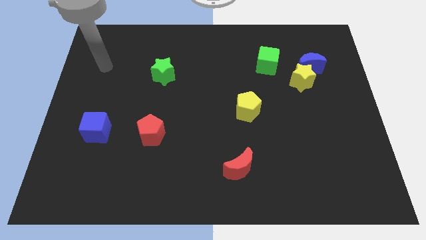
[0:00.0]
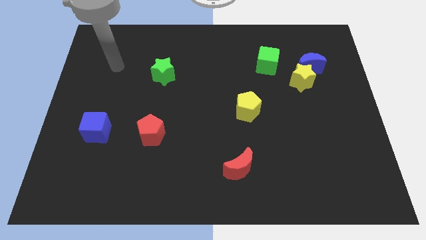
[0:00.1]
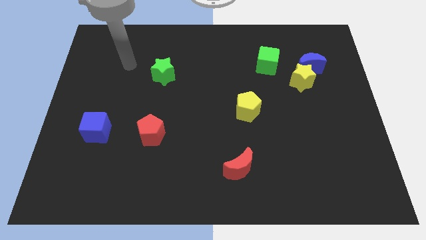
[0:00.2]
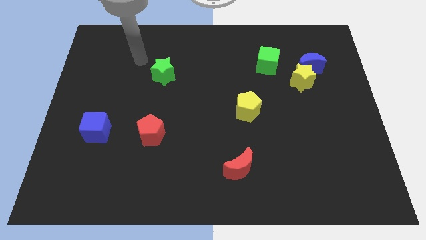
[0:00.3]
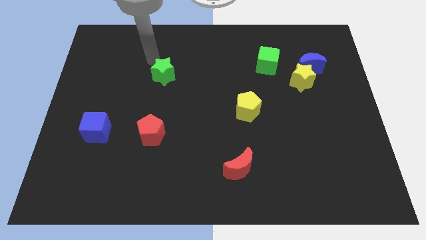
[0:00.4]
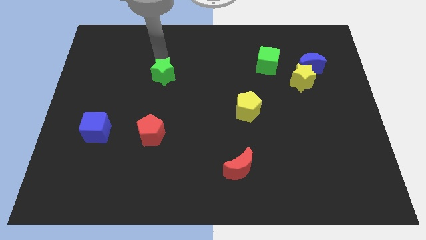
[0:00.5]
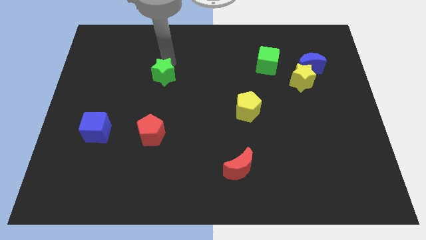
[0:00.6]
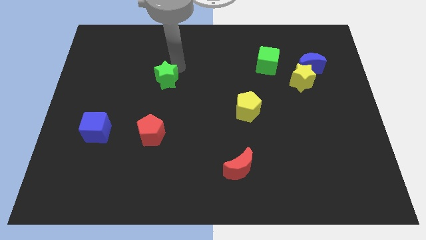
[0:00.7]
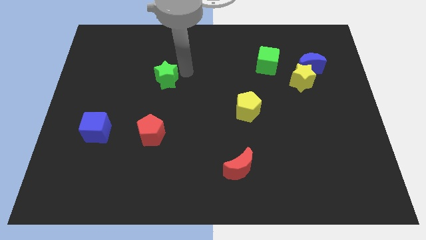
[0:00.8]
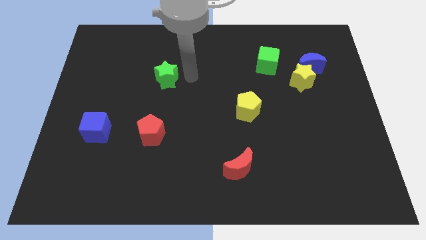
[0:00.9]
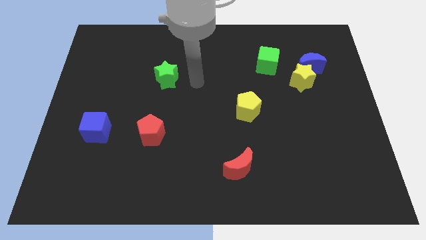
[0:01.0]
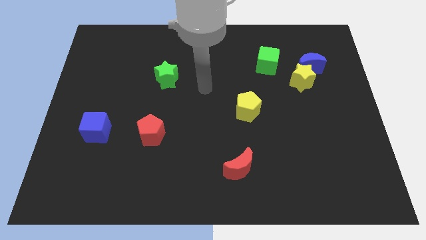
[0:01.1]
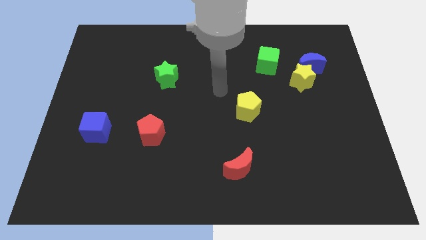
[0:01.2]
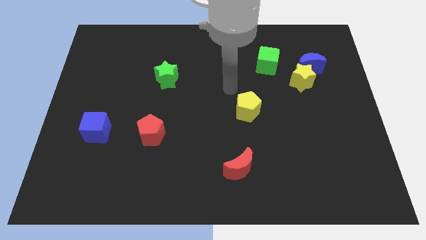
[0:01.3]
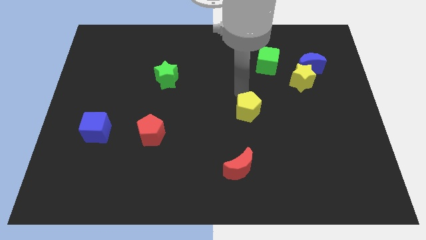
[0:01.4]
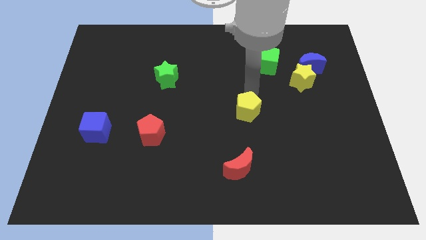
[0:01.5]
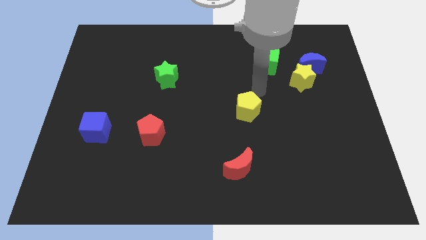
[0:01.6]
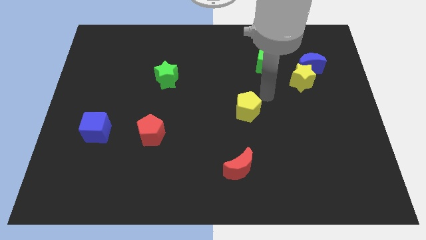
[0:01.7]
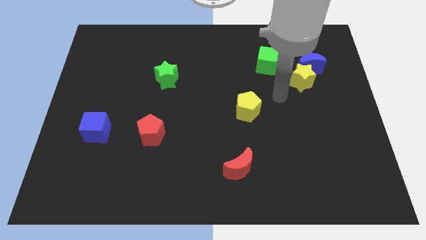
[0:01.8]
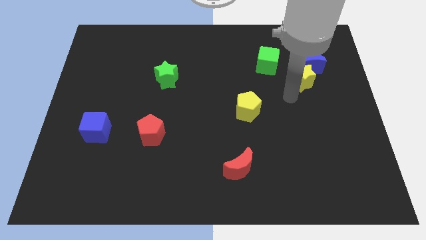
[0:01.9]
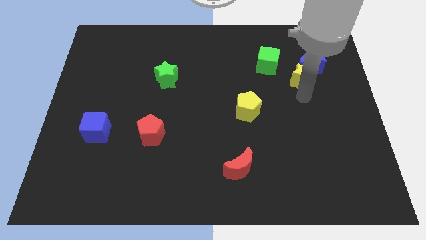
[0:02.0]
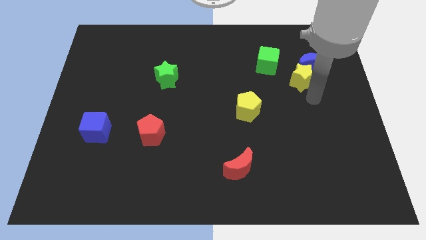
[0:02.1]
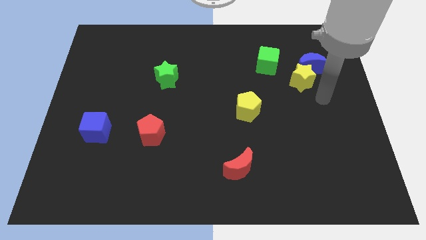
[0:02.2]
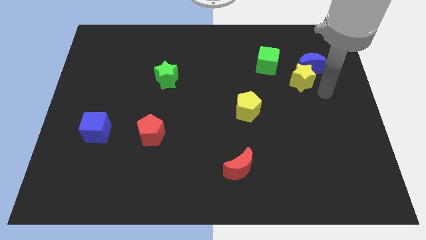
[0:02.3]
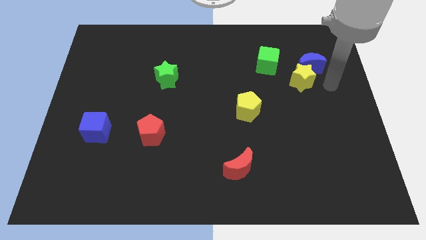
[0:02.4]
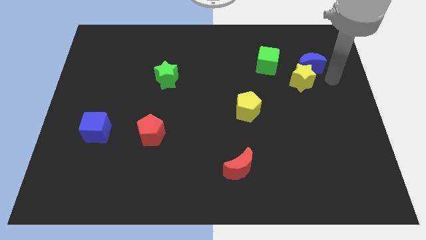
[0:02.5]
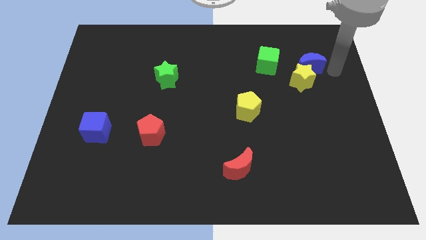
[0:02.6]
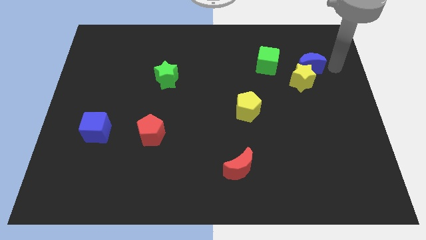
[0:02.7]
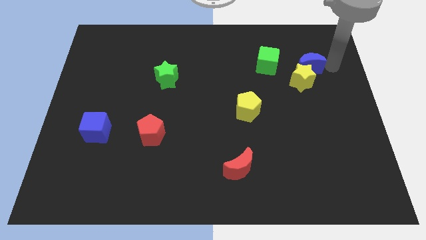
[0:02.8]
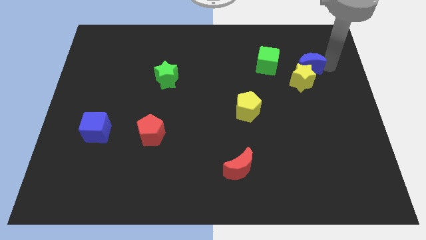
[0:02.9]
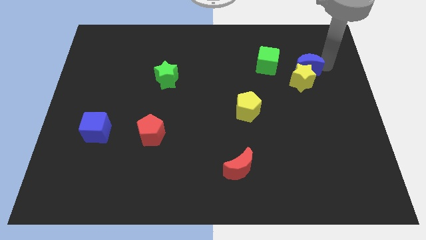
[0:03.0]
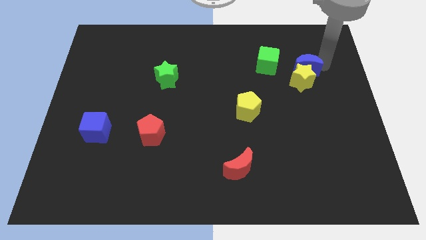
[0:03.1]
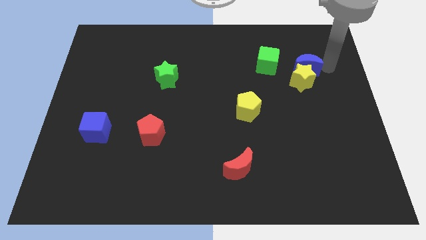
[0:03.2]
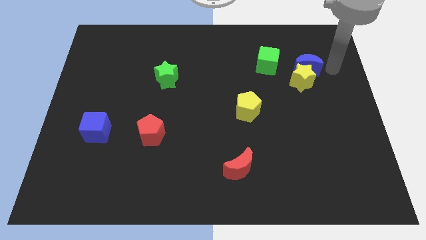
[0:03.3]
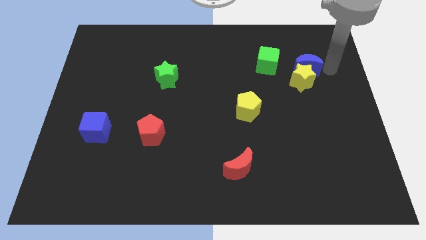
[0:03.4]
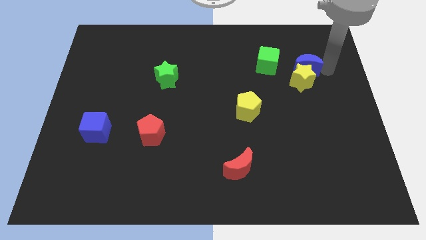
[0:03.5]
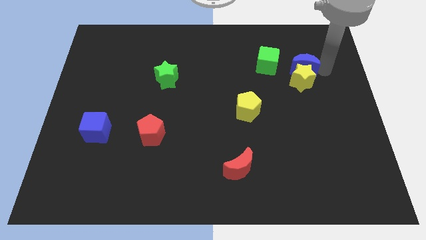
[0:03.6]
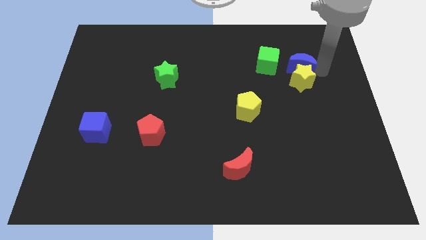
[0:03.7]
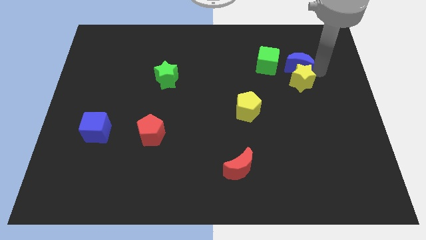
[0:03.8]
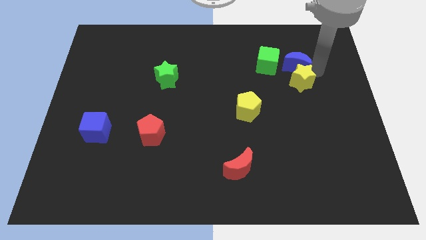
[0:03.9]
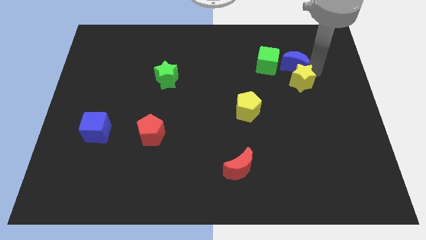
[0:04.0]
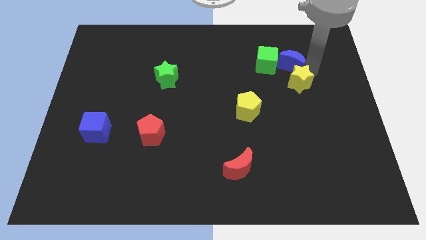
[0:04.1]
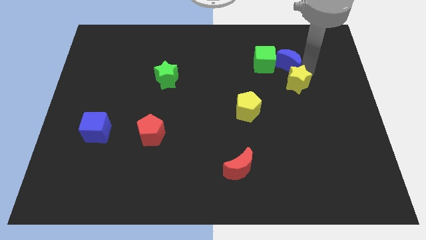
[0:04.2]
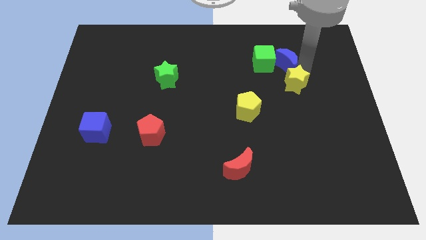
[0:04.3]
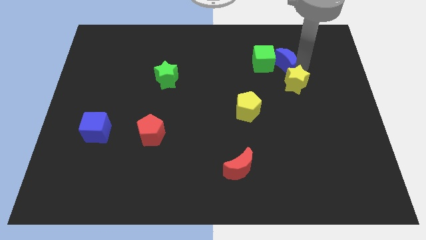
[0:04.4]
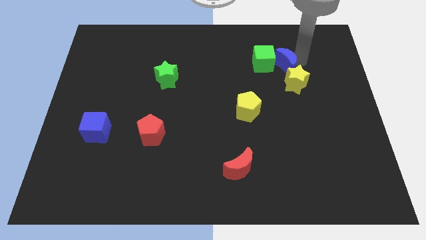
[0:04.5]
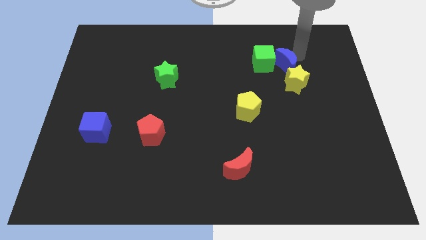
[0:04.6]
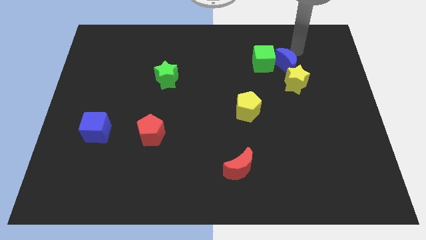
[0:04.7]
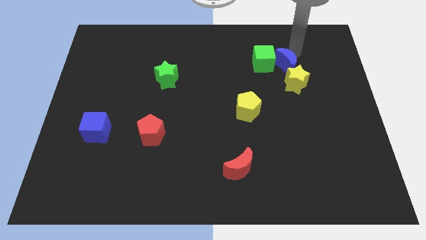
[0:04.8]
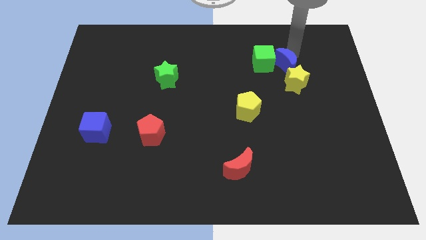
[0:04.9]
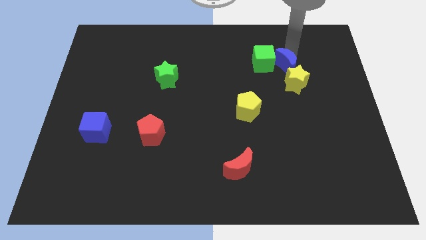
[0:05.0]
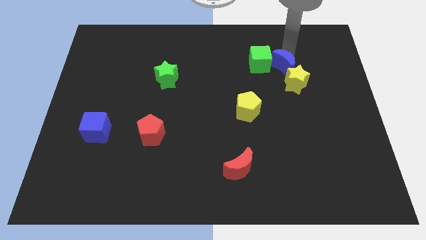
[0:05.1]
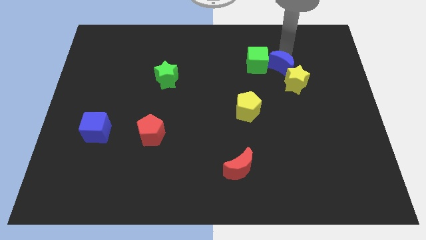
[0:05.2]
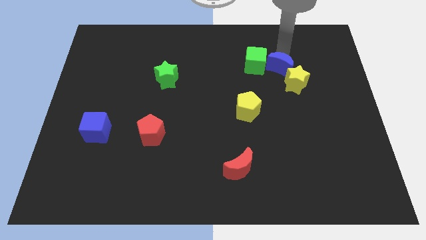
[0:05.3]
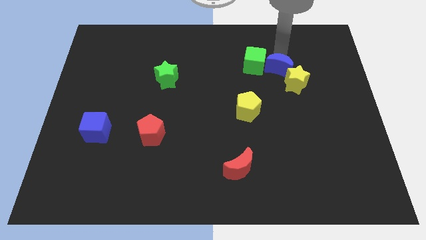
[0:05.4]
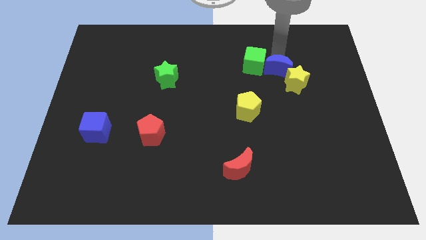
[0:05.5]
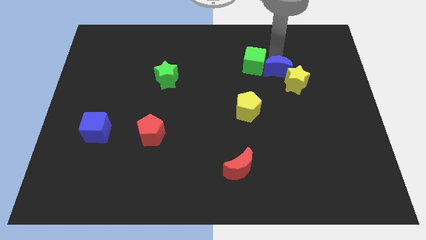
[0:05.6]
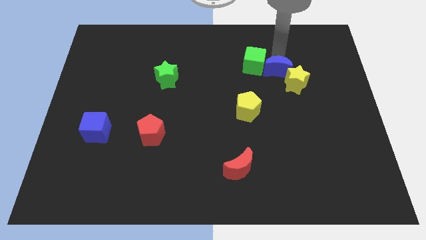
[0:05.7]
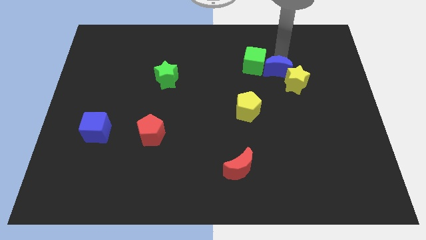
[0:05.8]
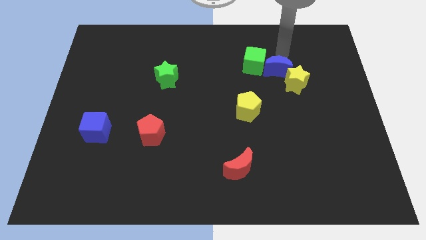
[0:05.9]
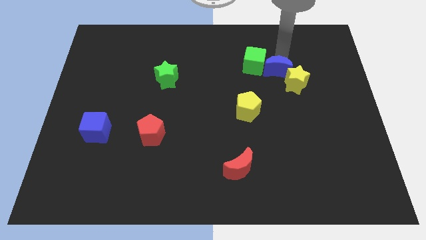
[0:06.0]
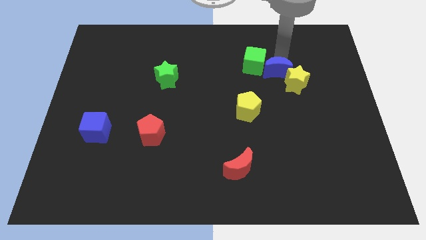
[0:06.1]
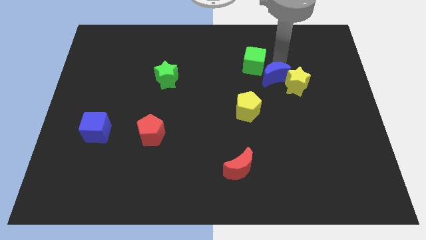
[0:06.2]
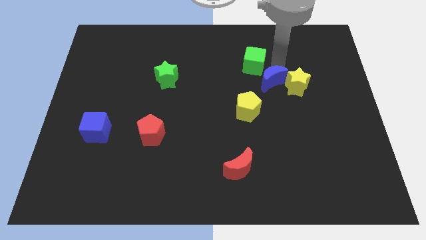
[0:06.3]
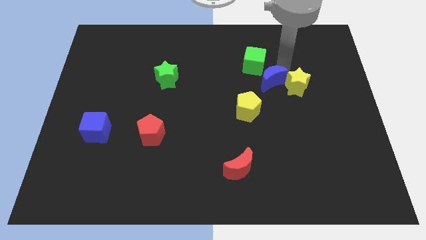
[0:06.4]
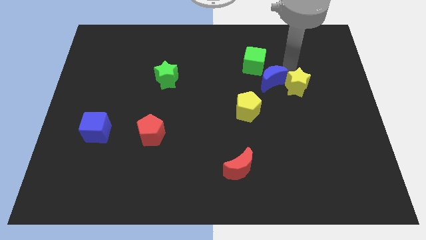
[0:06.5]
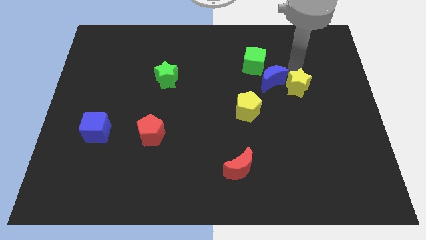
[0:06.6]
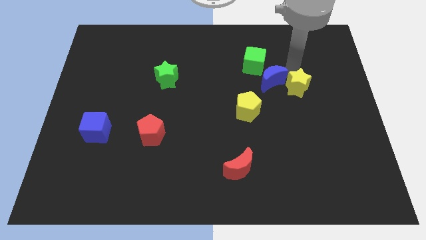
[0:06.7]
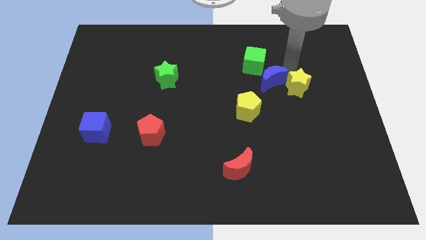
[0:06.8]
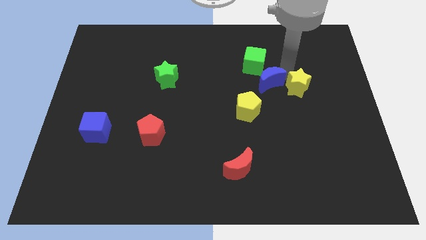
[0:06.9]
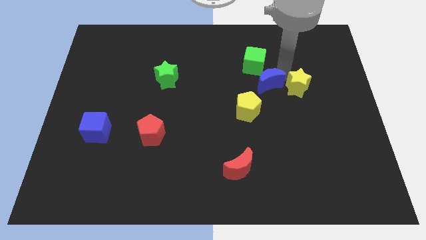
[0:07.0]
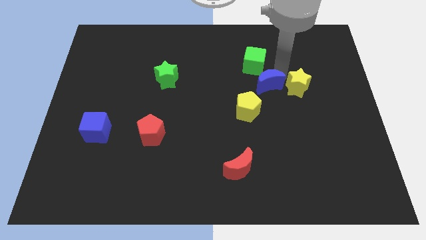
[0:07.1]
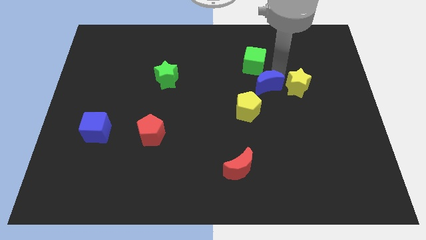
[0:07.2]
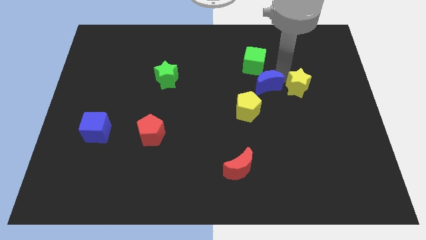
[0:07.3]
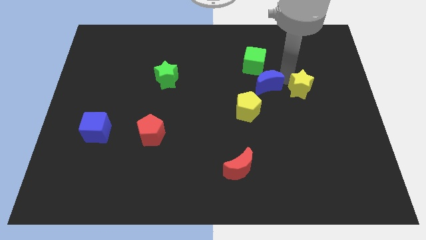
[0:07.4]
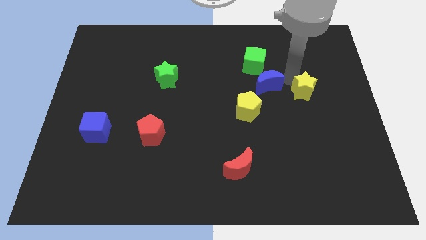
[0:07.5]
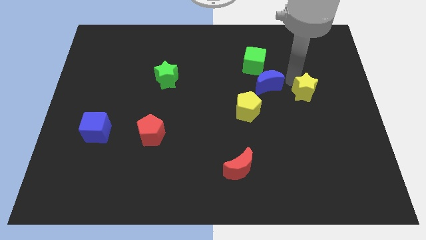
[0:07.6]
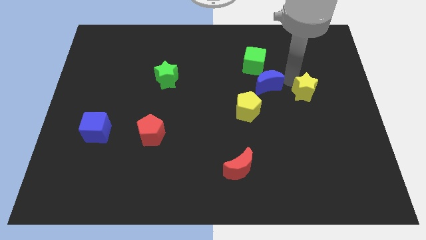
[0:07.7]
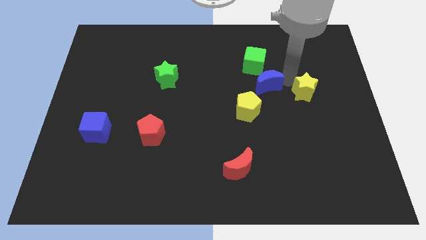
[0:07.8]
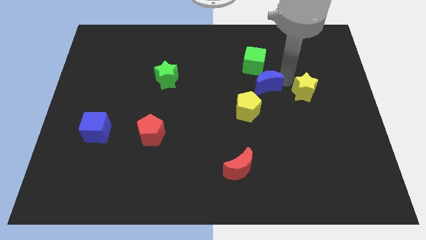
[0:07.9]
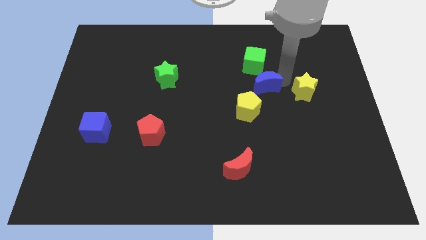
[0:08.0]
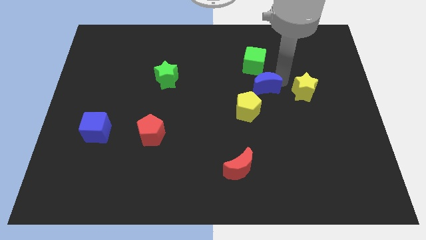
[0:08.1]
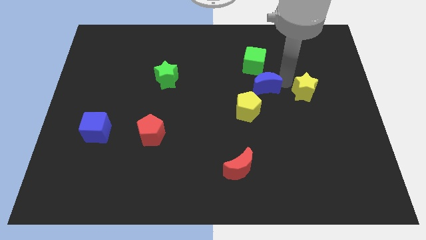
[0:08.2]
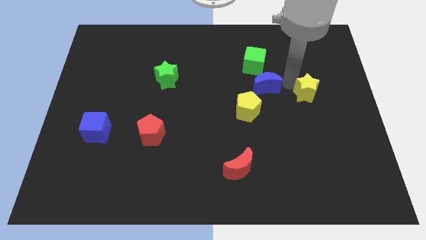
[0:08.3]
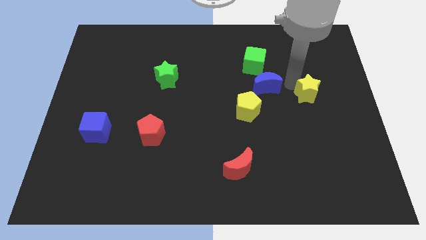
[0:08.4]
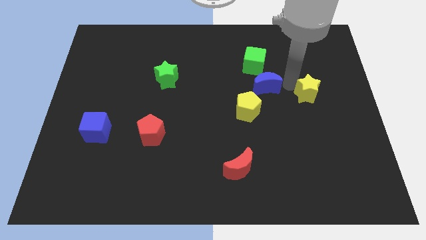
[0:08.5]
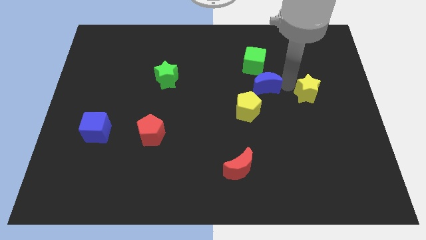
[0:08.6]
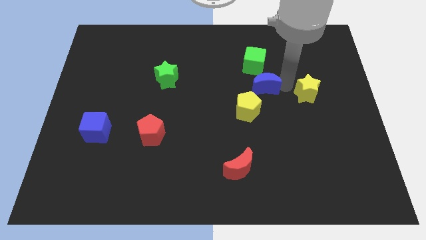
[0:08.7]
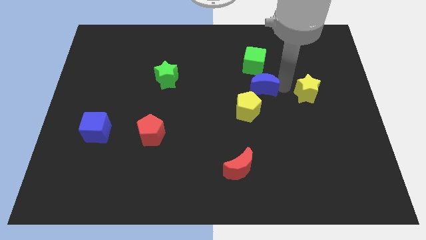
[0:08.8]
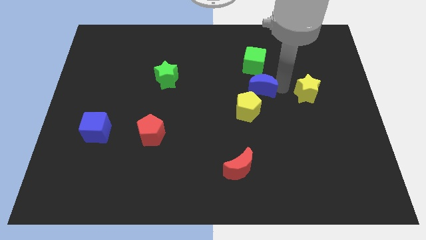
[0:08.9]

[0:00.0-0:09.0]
slide the blue moon to the middle
